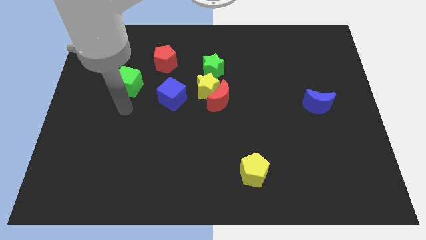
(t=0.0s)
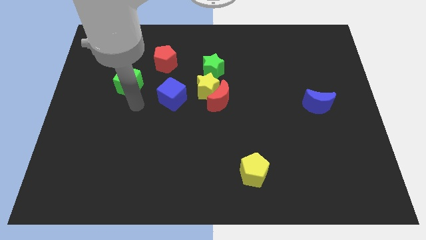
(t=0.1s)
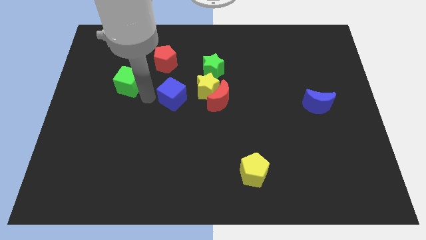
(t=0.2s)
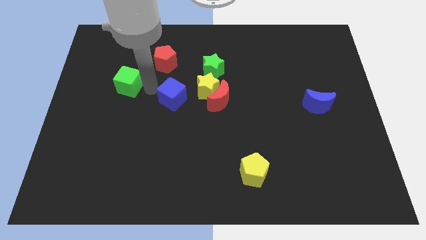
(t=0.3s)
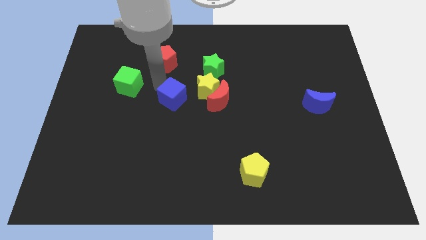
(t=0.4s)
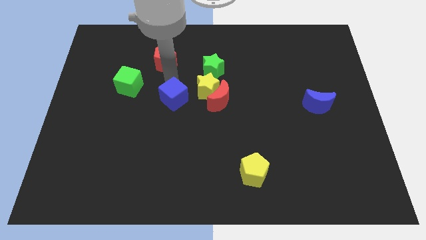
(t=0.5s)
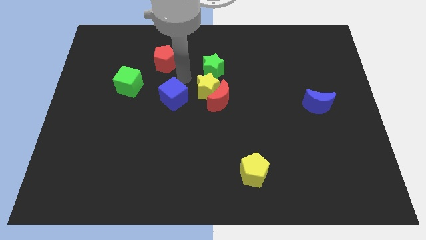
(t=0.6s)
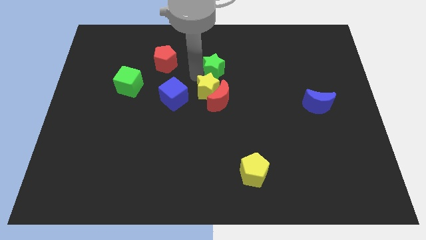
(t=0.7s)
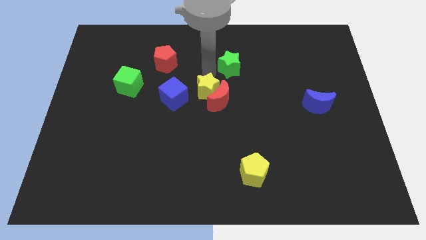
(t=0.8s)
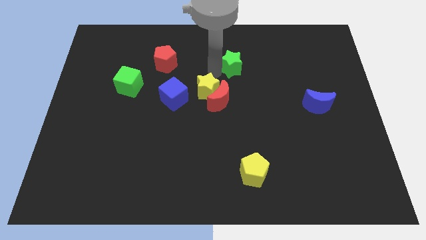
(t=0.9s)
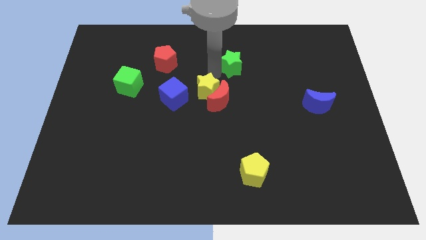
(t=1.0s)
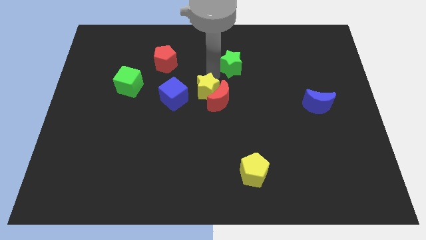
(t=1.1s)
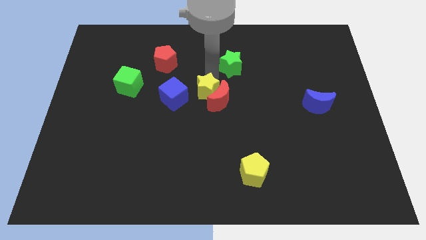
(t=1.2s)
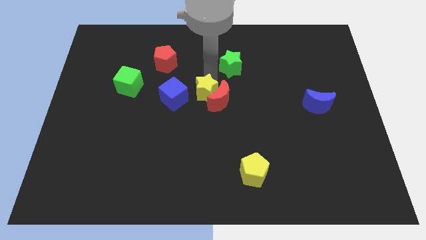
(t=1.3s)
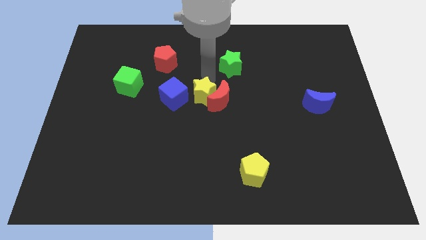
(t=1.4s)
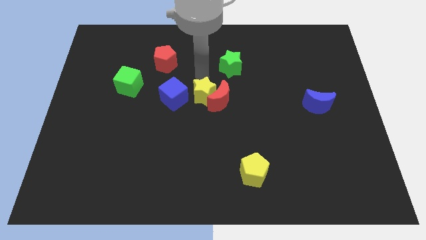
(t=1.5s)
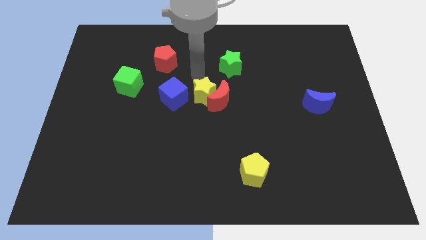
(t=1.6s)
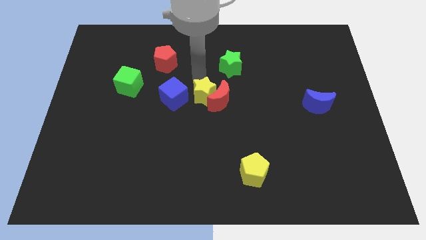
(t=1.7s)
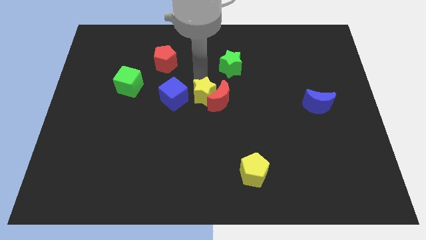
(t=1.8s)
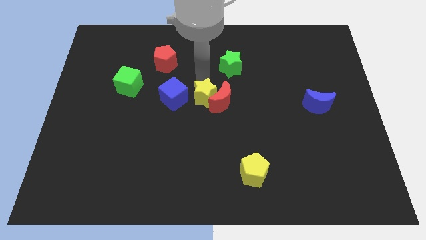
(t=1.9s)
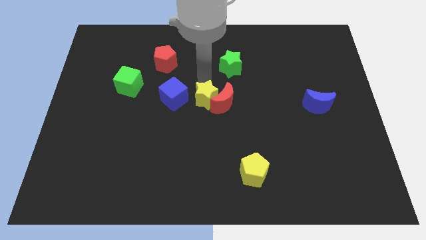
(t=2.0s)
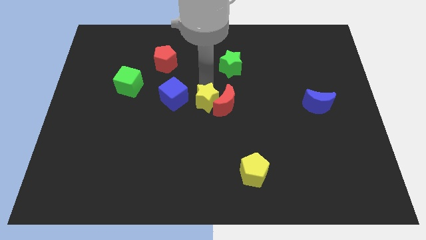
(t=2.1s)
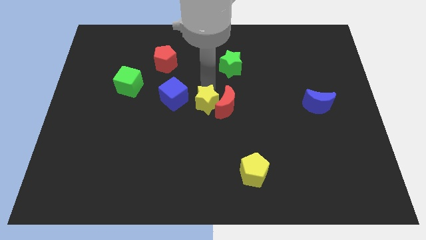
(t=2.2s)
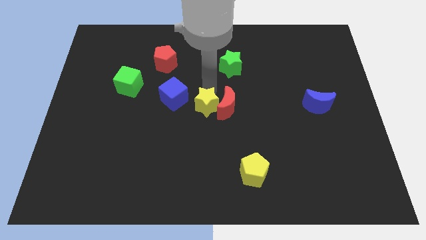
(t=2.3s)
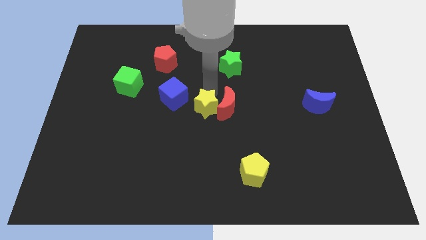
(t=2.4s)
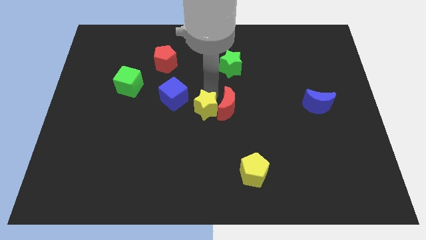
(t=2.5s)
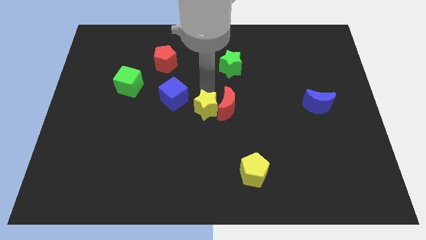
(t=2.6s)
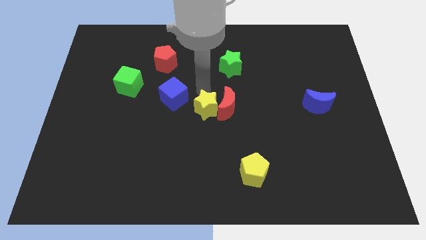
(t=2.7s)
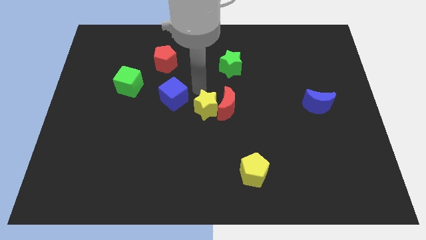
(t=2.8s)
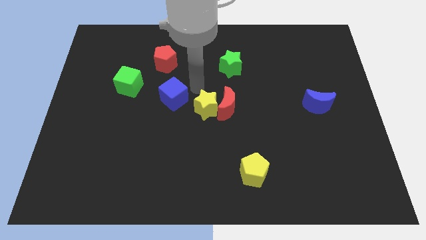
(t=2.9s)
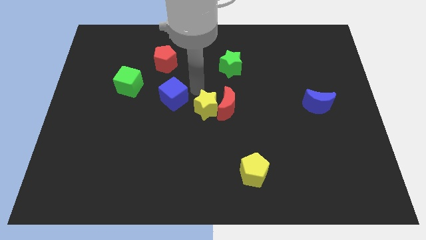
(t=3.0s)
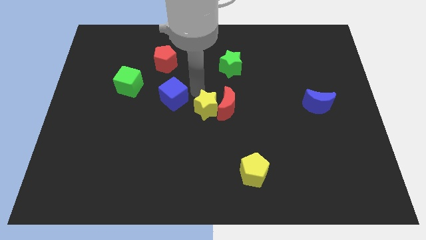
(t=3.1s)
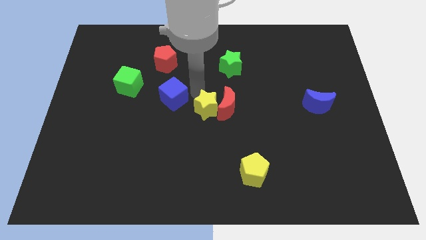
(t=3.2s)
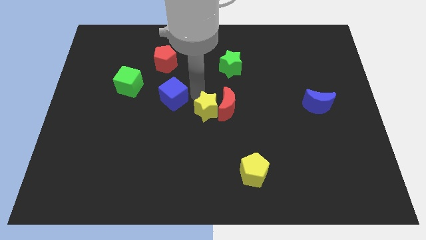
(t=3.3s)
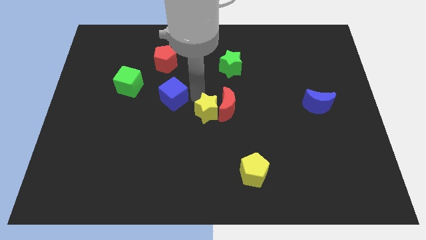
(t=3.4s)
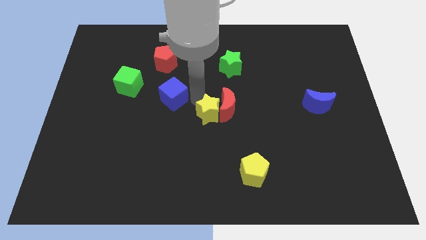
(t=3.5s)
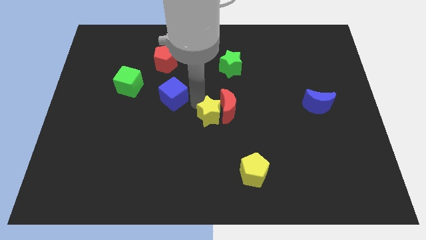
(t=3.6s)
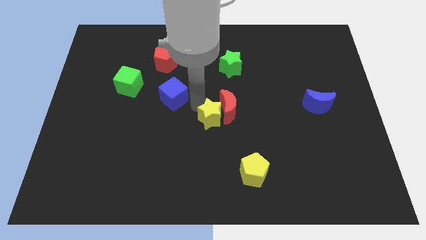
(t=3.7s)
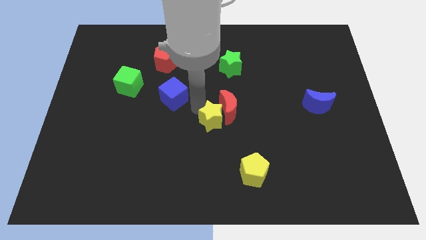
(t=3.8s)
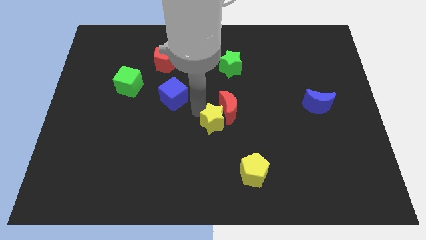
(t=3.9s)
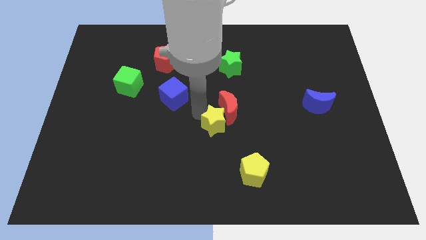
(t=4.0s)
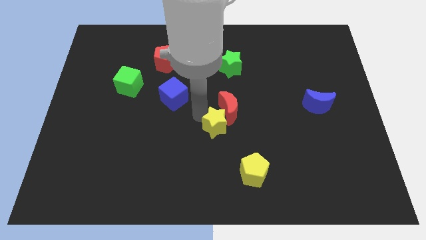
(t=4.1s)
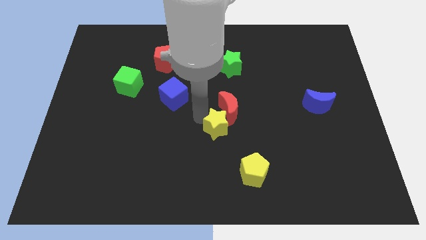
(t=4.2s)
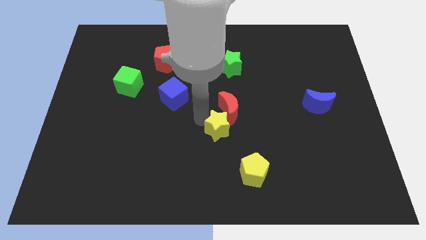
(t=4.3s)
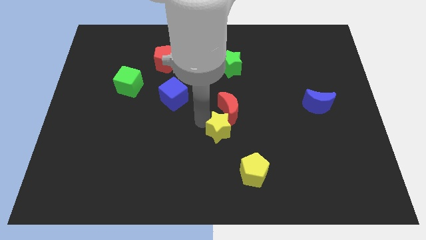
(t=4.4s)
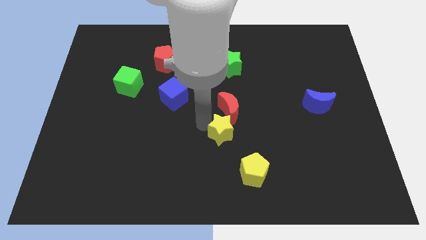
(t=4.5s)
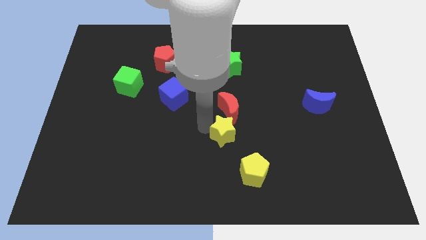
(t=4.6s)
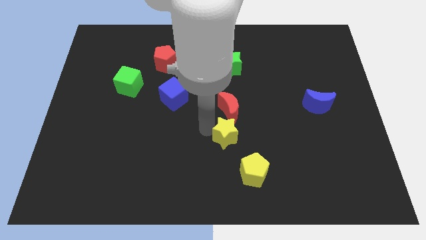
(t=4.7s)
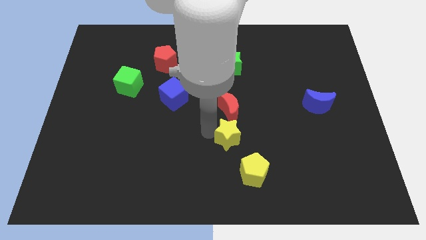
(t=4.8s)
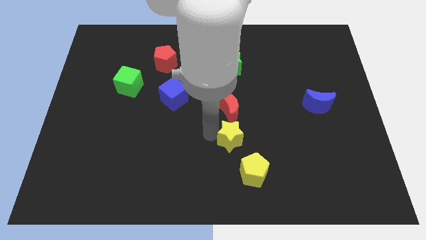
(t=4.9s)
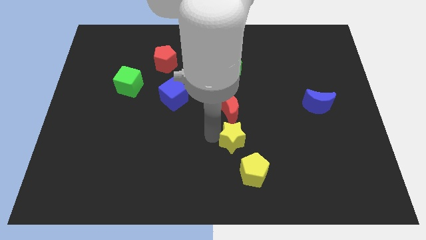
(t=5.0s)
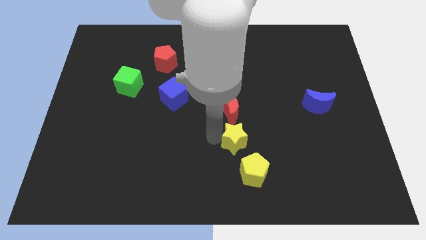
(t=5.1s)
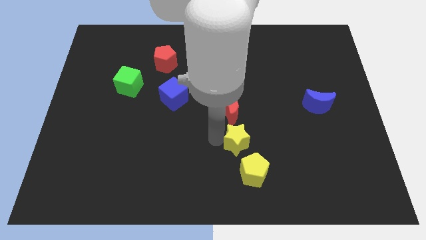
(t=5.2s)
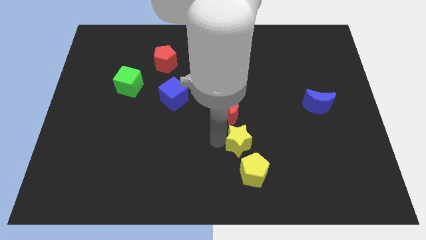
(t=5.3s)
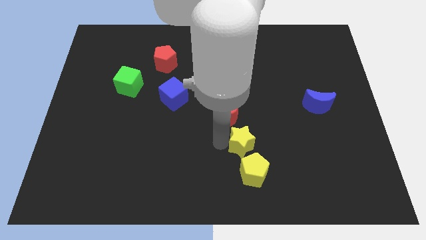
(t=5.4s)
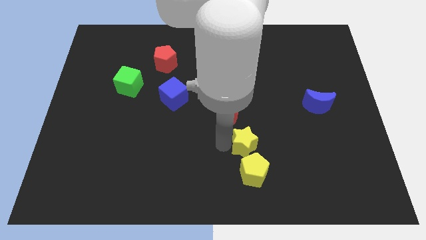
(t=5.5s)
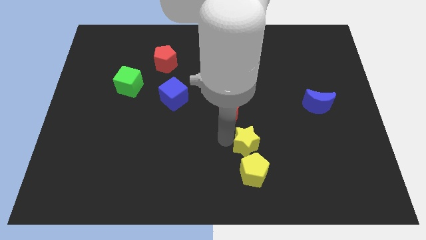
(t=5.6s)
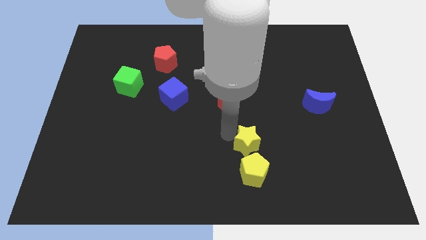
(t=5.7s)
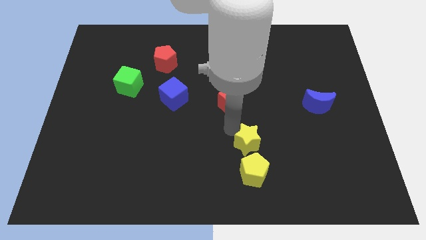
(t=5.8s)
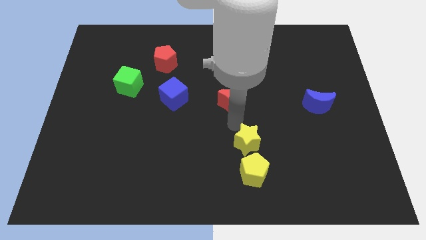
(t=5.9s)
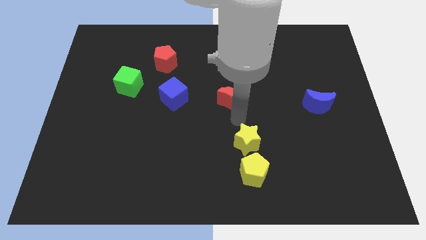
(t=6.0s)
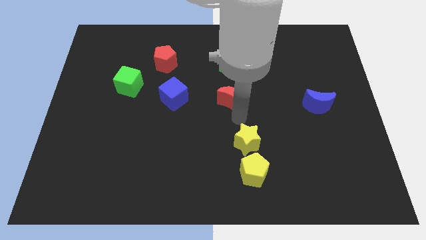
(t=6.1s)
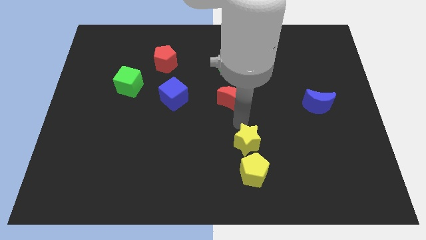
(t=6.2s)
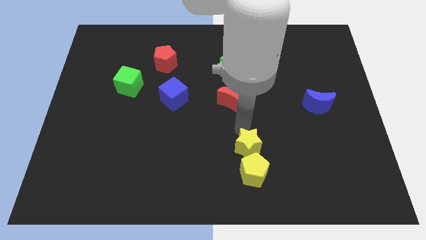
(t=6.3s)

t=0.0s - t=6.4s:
put the yellow star towards the yellow pentagon

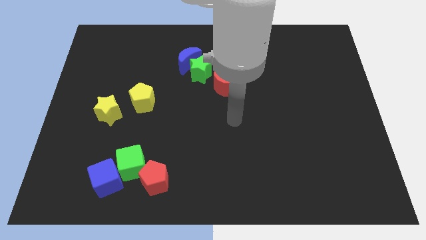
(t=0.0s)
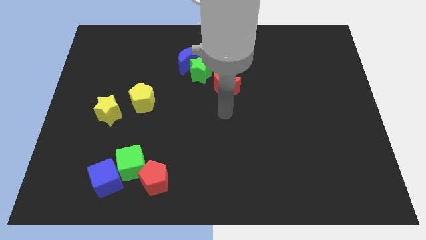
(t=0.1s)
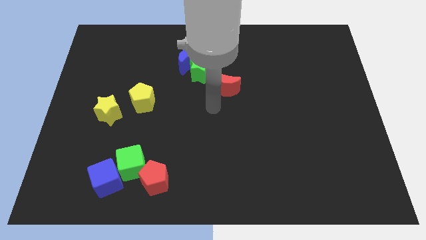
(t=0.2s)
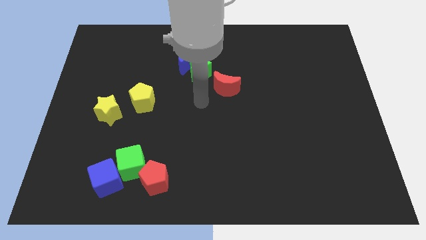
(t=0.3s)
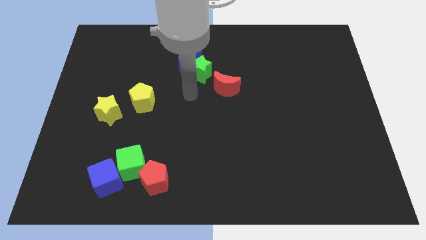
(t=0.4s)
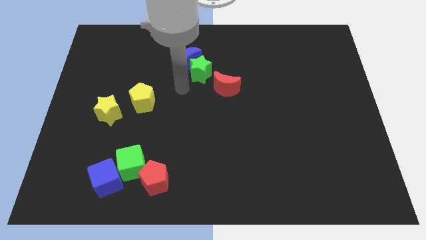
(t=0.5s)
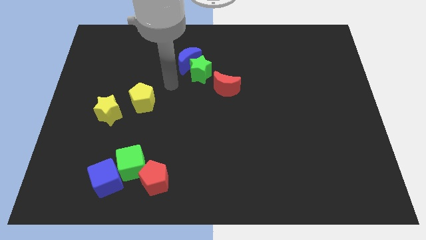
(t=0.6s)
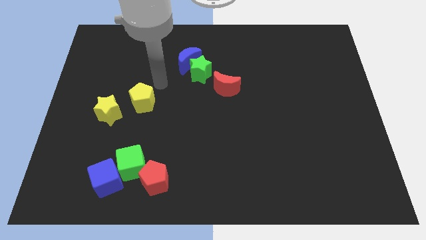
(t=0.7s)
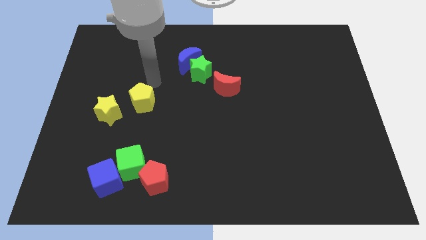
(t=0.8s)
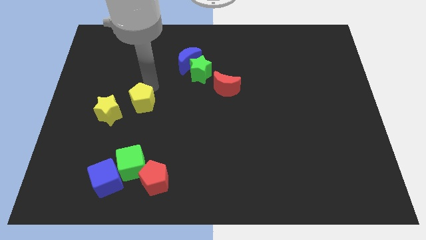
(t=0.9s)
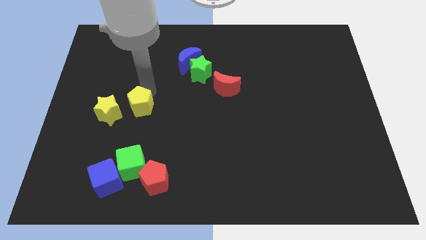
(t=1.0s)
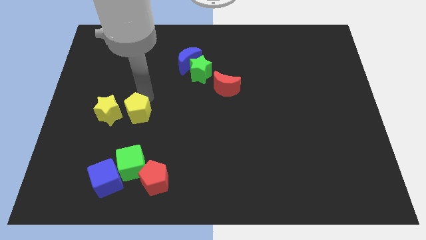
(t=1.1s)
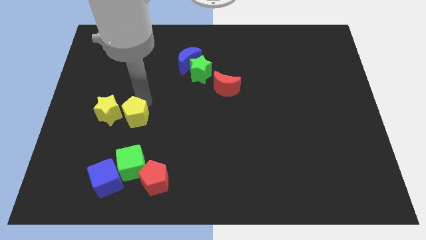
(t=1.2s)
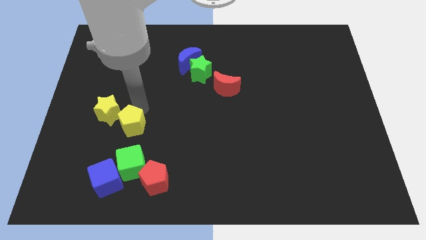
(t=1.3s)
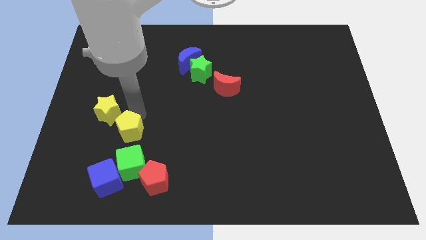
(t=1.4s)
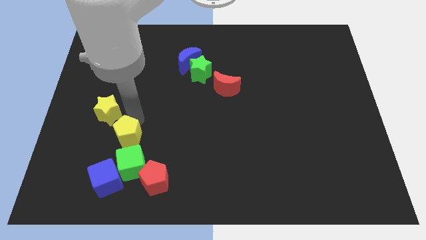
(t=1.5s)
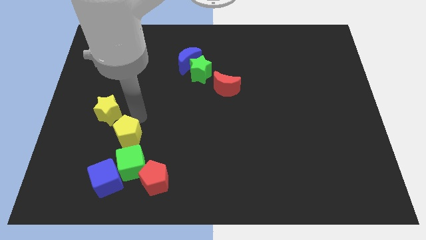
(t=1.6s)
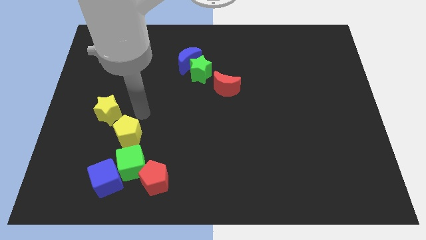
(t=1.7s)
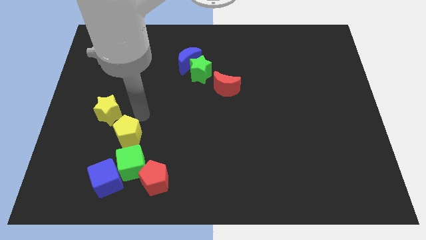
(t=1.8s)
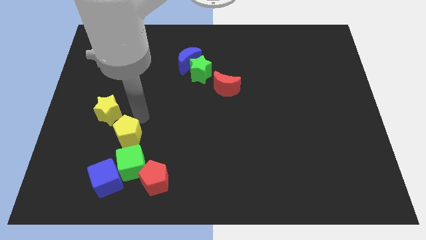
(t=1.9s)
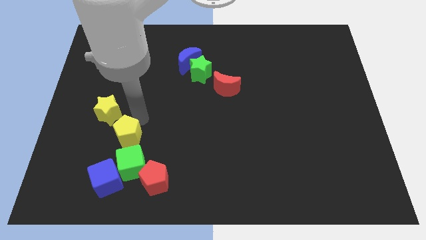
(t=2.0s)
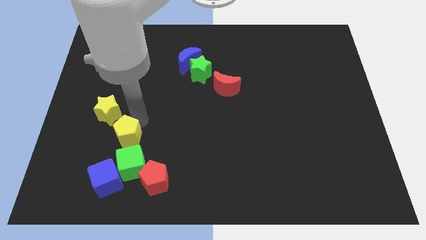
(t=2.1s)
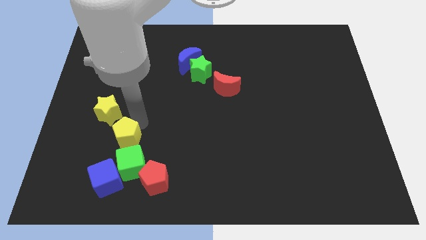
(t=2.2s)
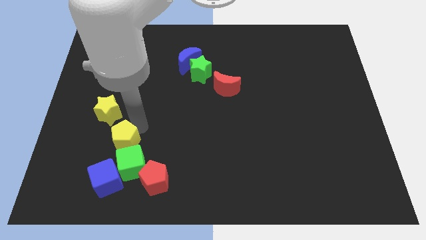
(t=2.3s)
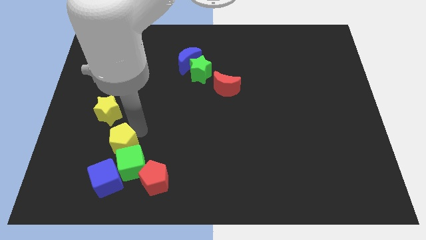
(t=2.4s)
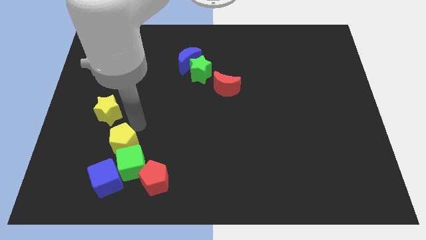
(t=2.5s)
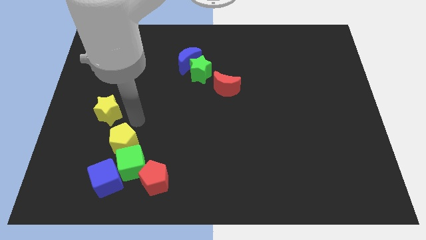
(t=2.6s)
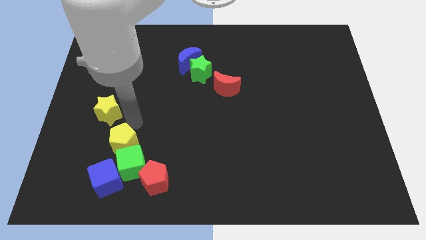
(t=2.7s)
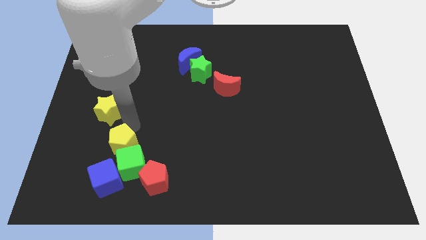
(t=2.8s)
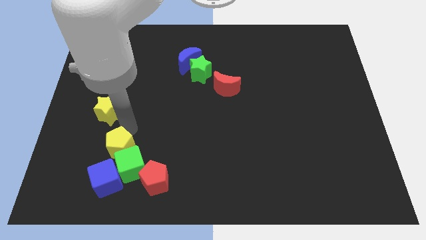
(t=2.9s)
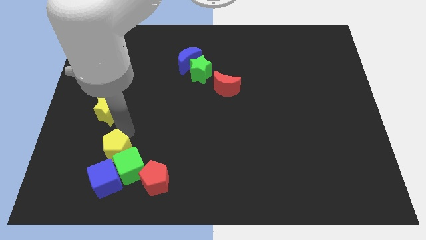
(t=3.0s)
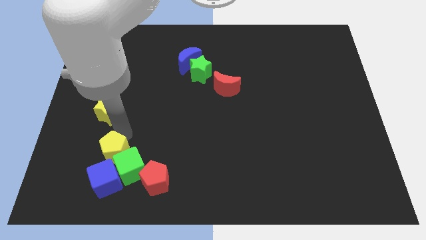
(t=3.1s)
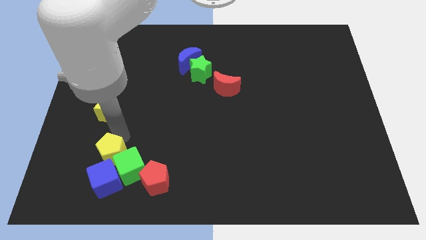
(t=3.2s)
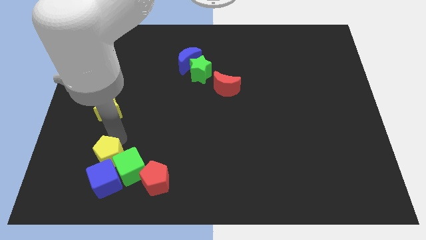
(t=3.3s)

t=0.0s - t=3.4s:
push the yellow pentagon close to the blue cube
